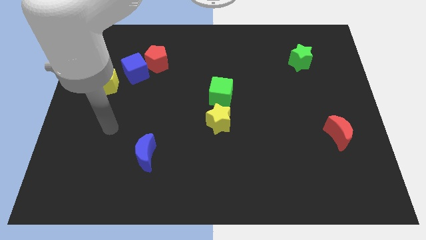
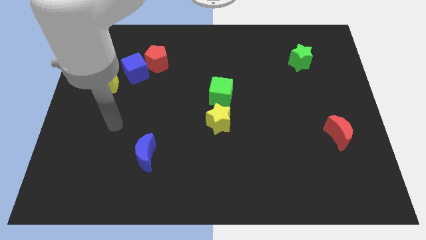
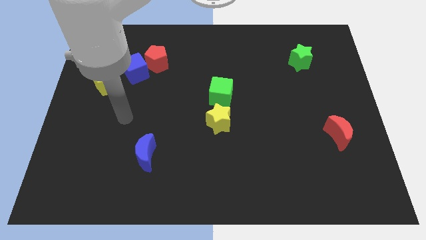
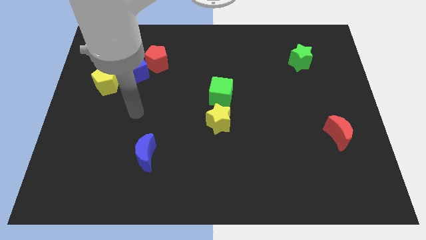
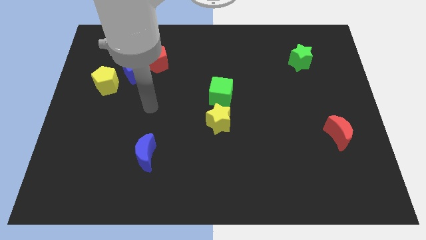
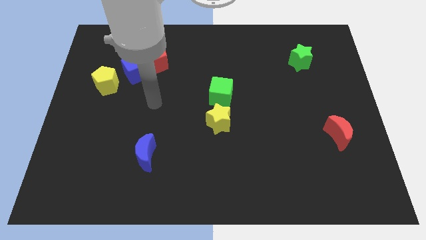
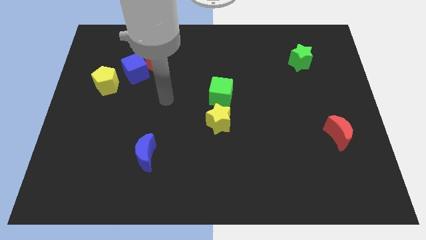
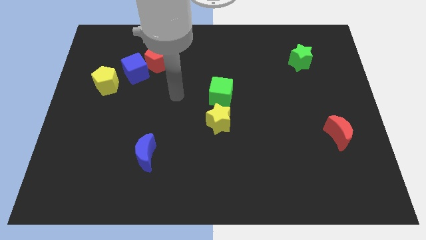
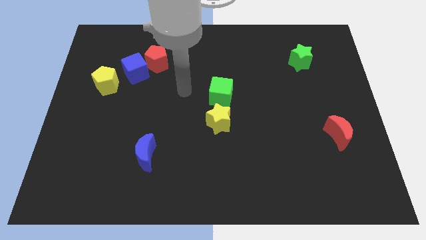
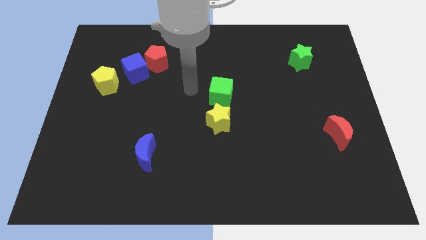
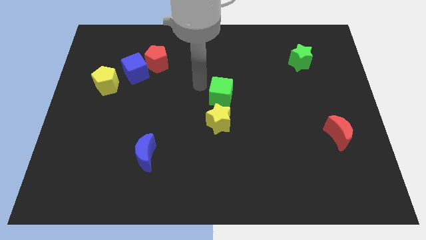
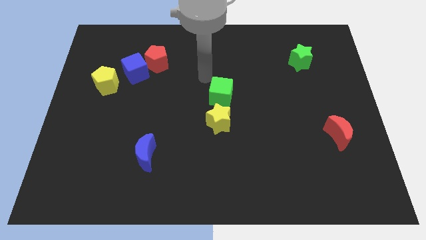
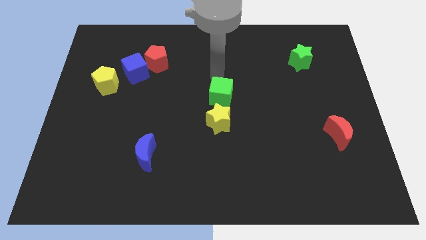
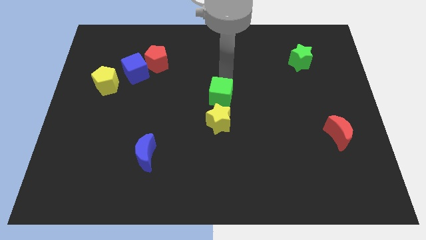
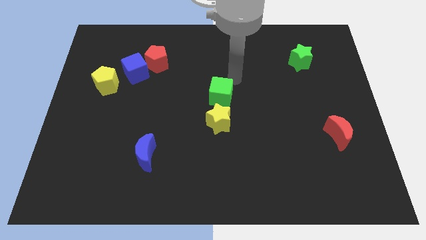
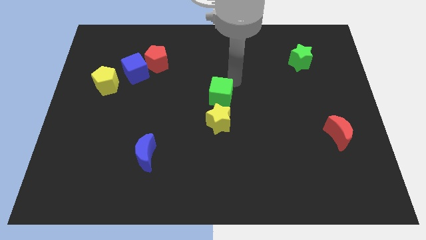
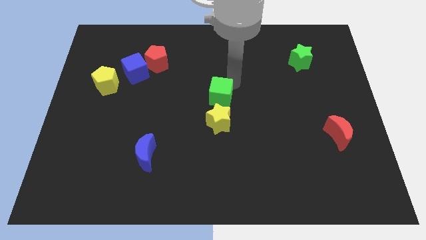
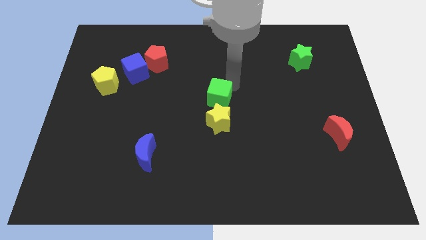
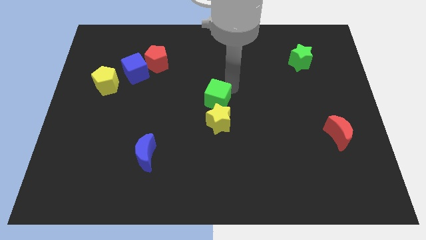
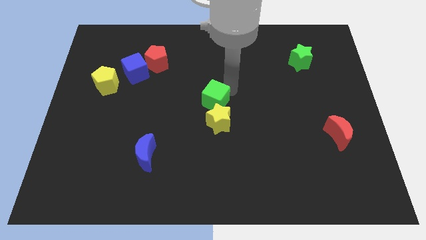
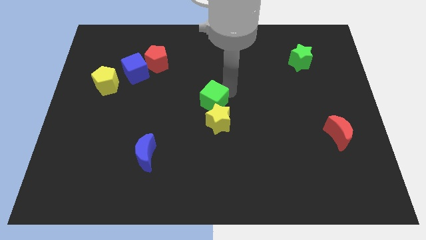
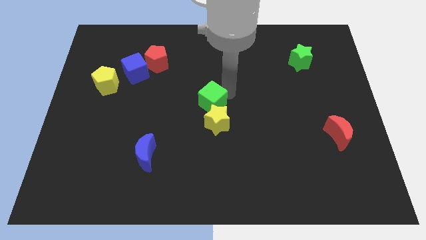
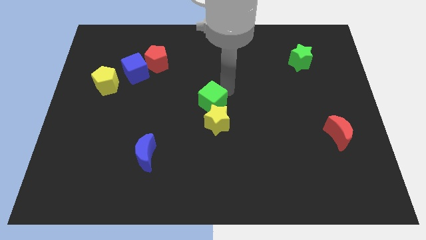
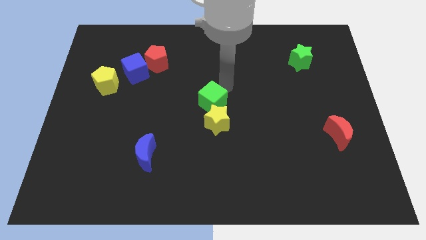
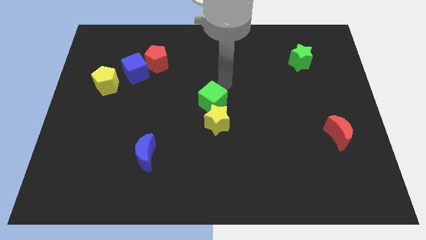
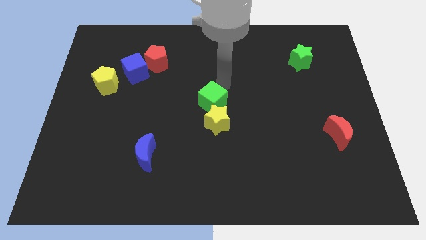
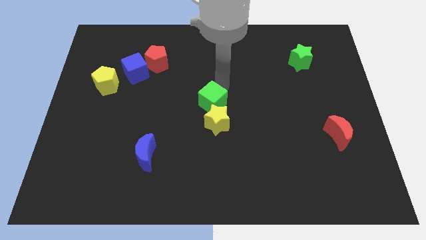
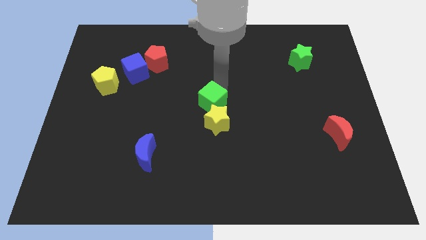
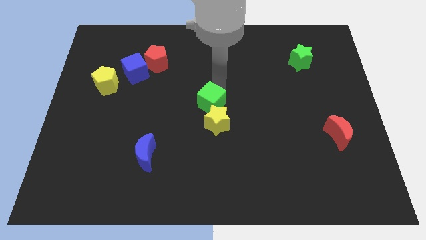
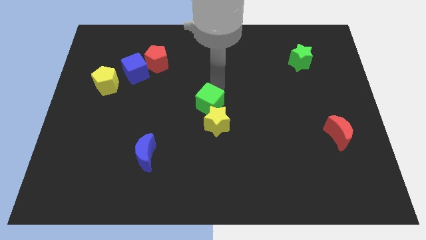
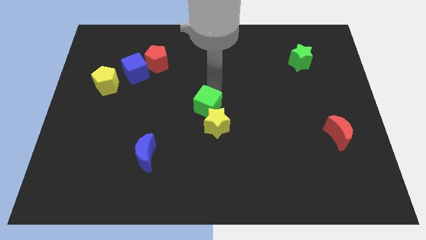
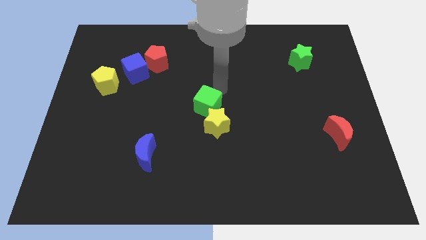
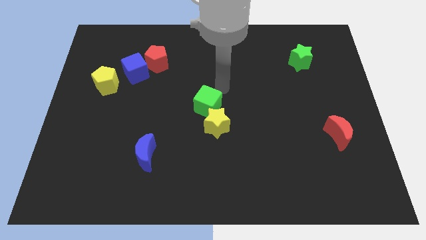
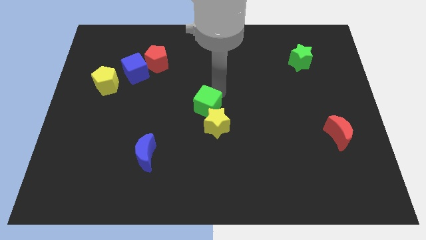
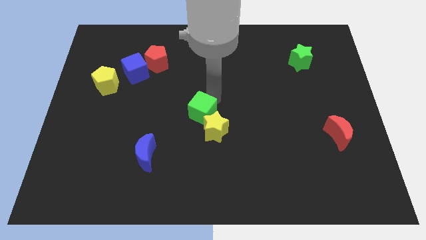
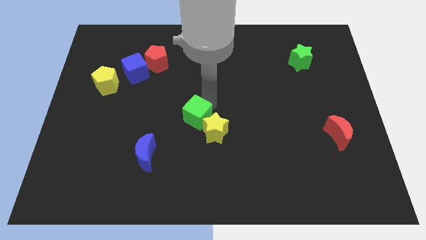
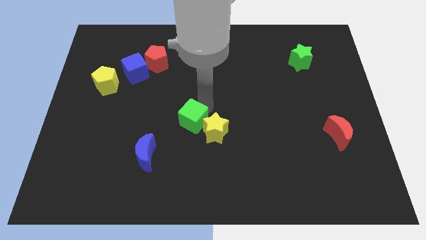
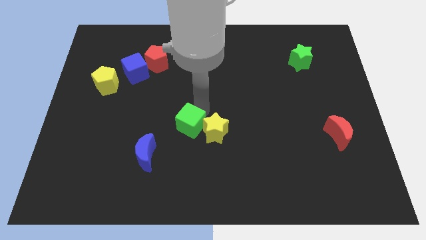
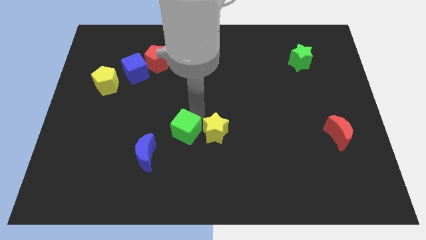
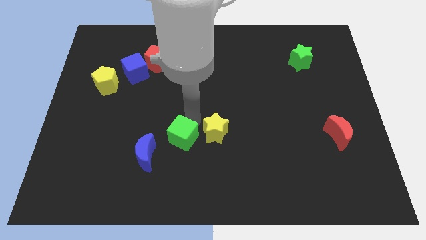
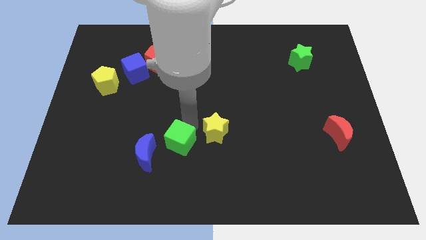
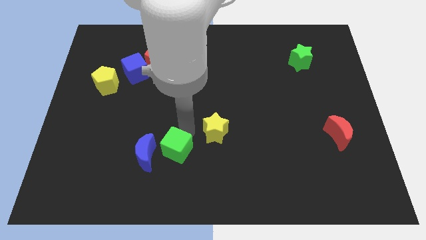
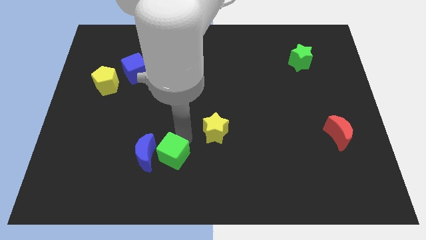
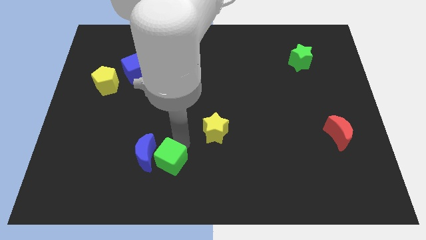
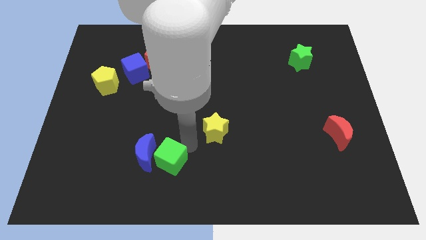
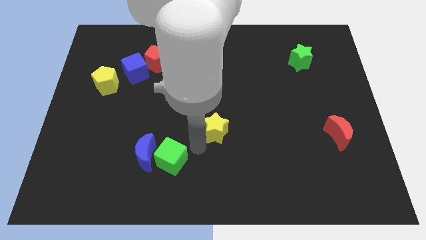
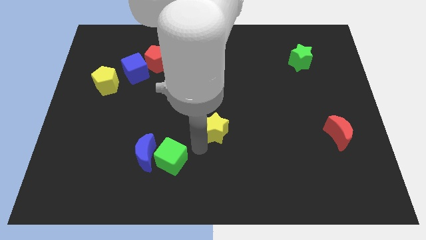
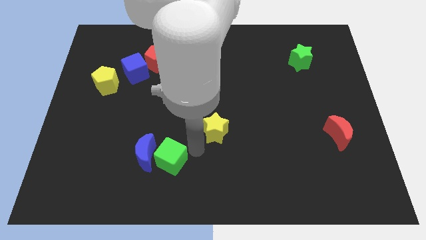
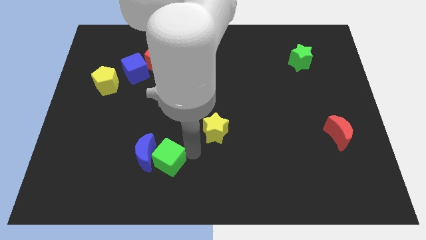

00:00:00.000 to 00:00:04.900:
slide the green cube downwards and then to the left

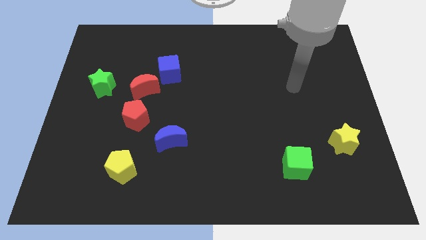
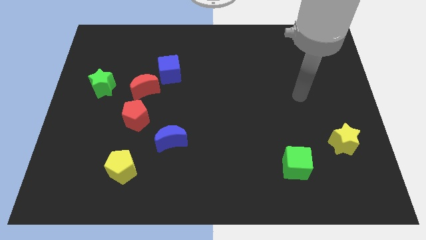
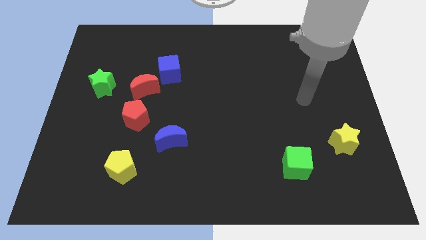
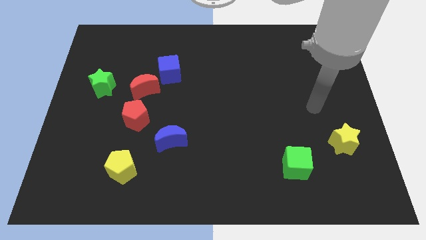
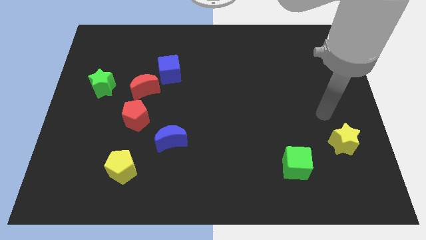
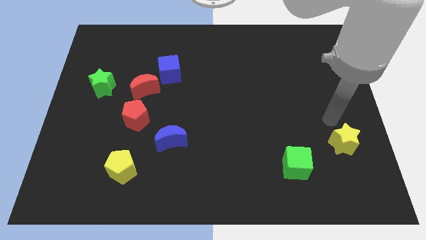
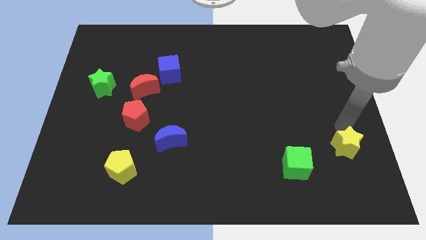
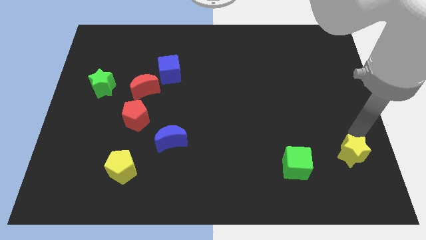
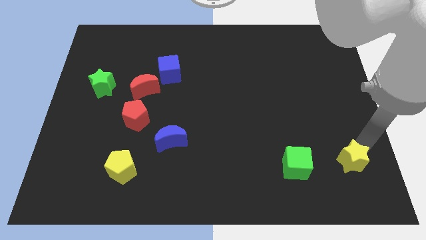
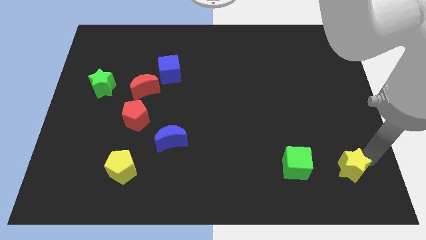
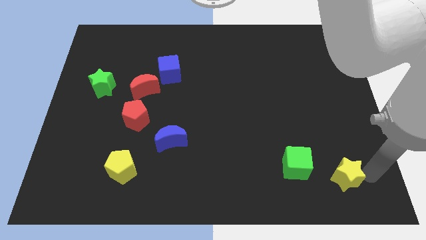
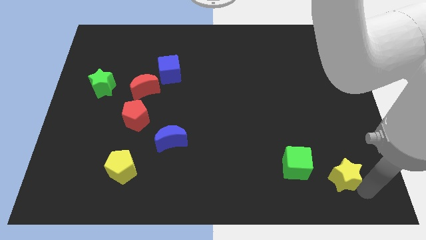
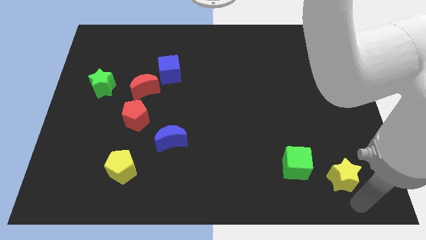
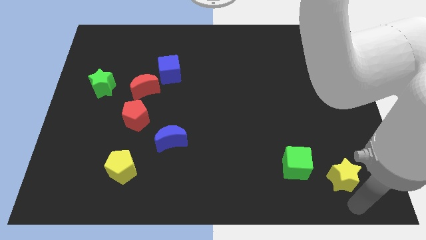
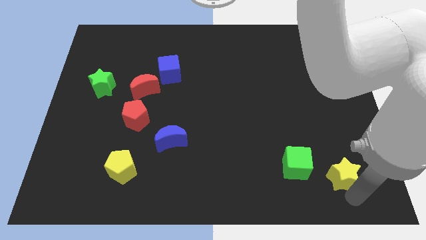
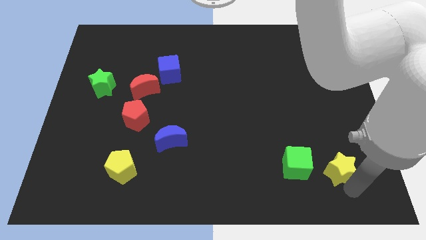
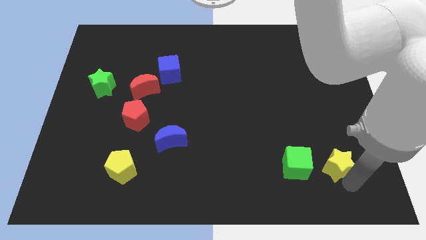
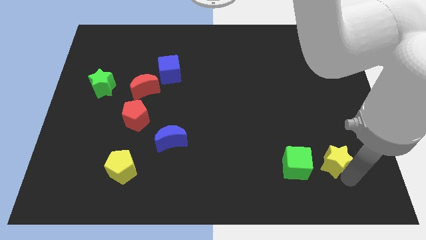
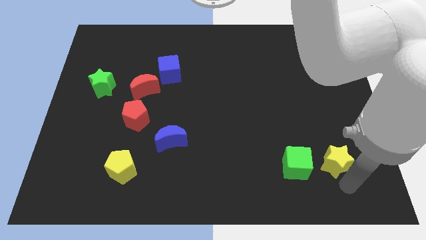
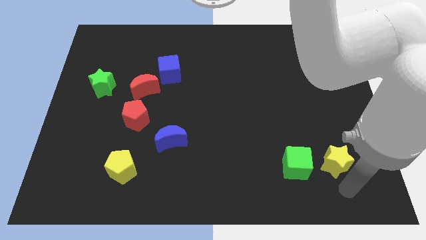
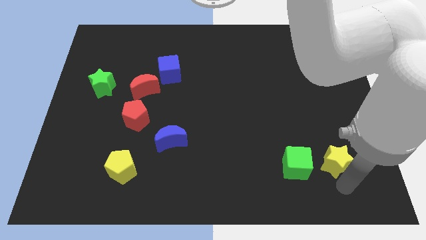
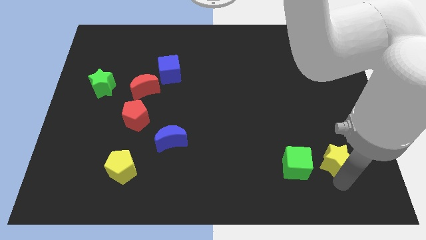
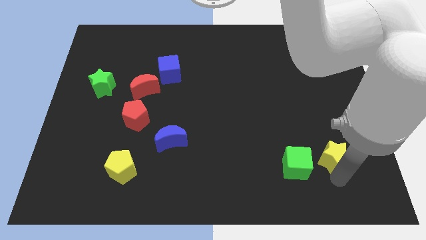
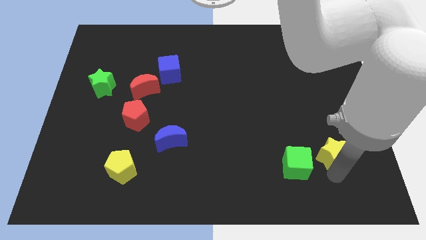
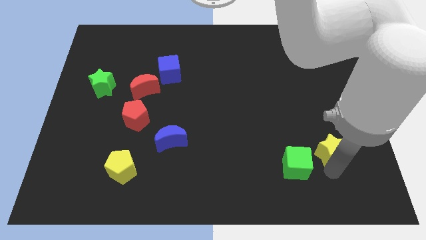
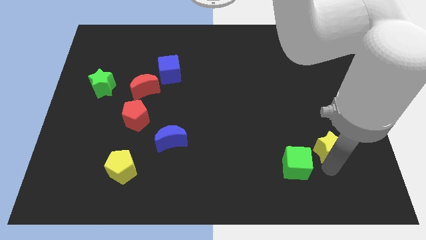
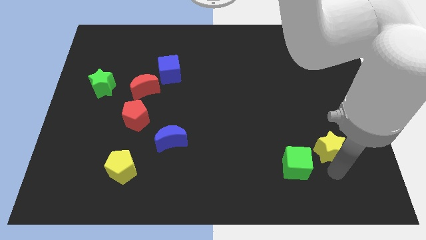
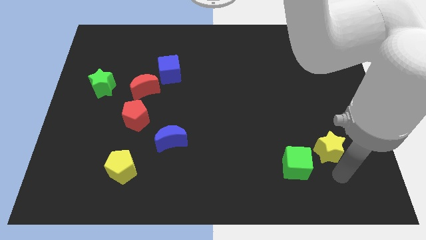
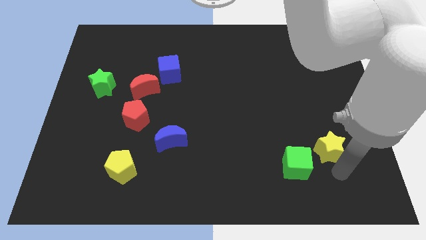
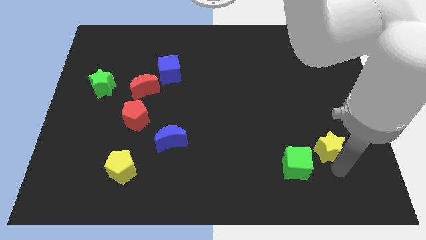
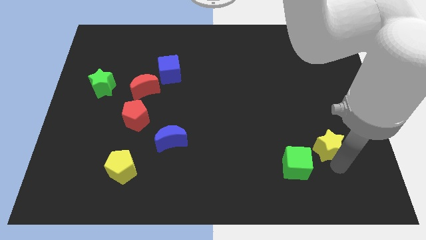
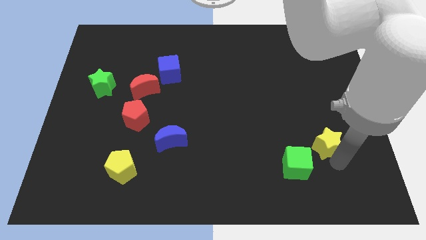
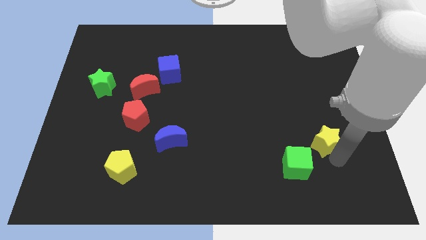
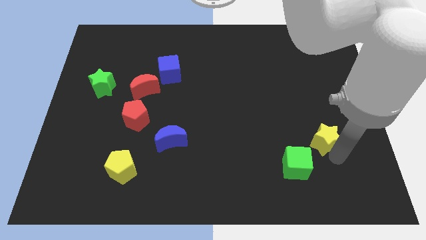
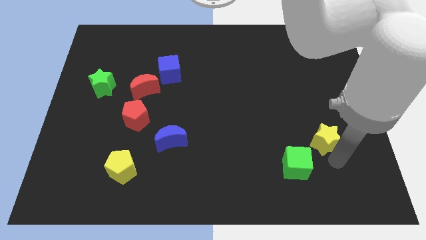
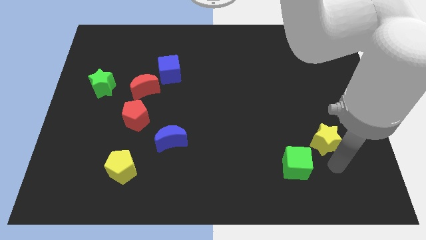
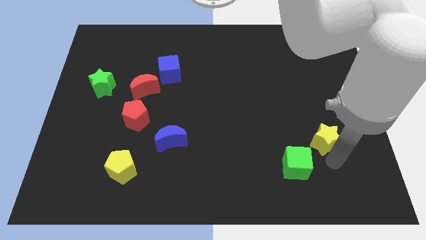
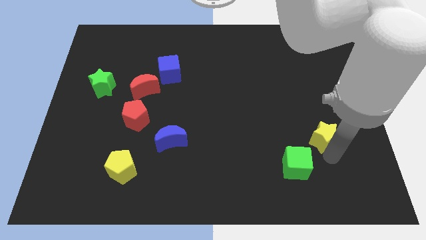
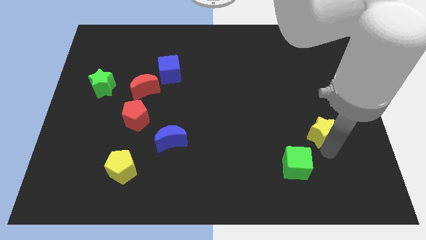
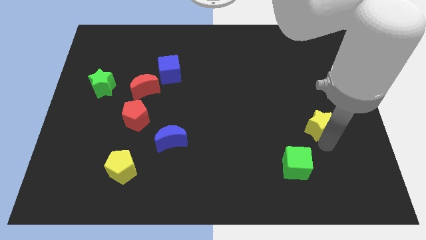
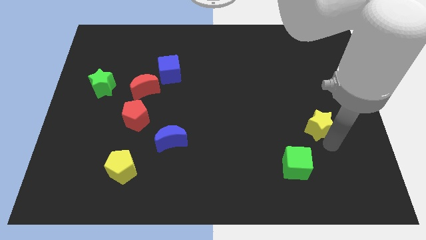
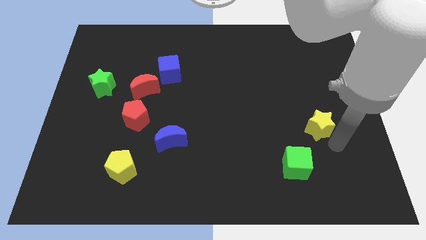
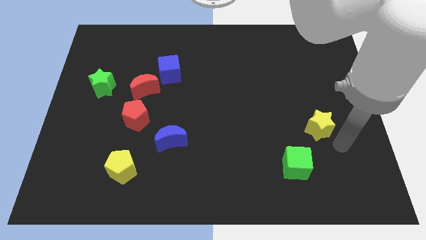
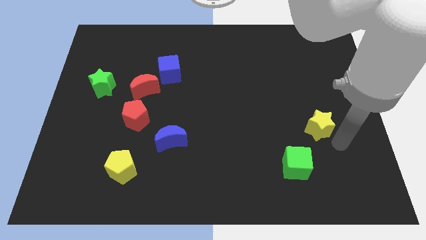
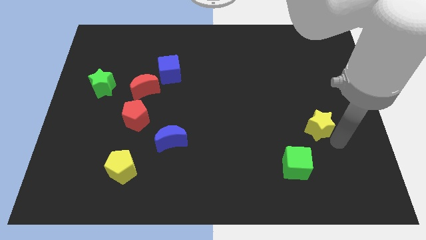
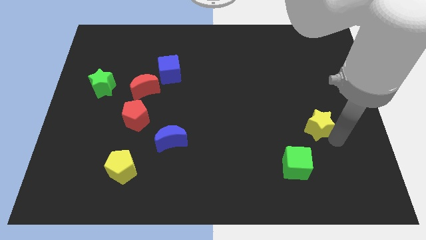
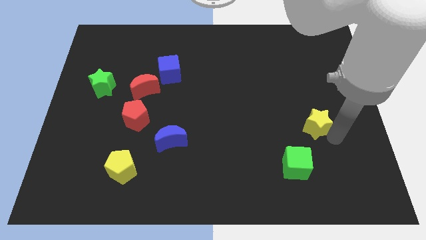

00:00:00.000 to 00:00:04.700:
push the yellow star a little bit up and to the left
